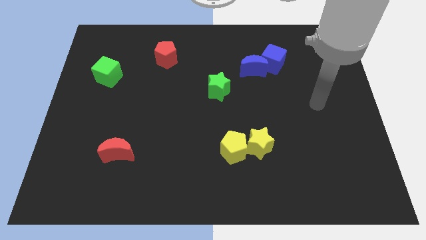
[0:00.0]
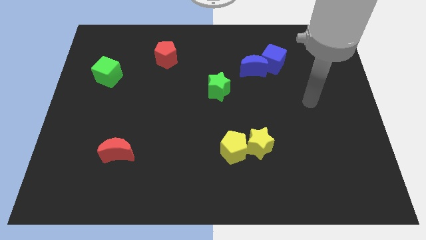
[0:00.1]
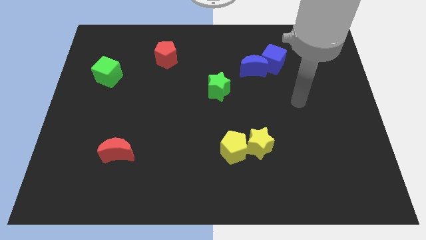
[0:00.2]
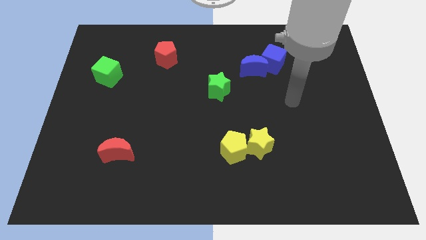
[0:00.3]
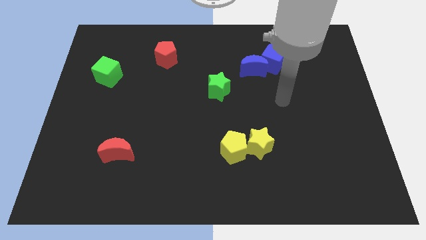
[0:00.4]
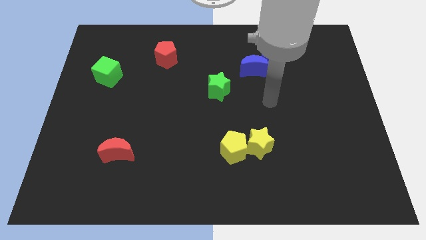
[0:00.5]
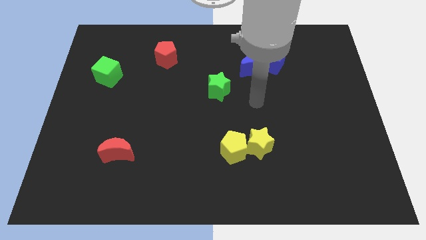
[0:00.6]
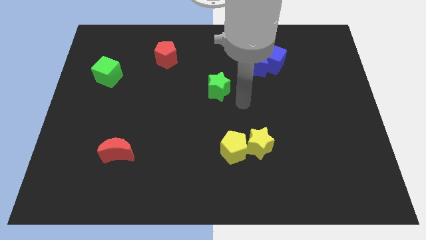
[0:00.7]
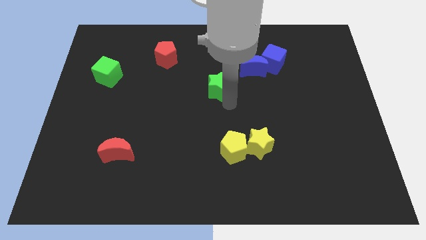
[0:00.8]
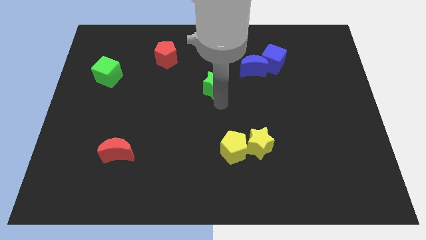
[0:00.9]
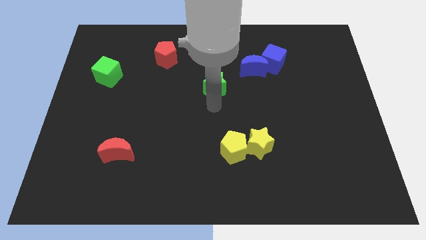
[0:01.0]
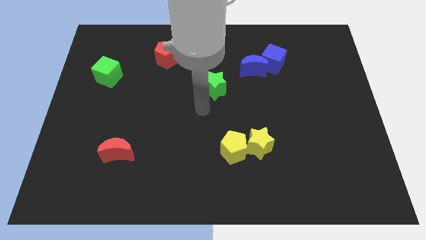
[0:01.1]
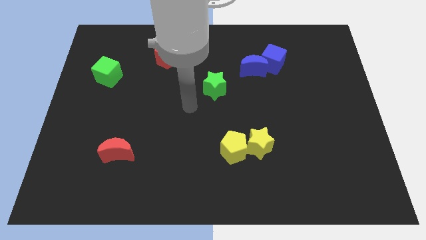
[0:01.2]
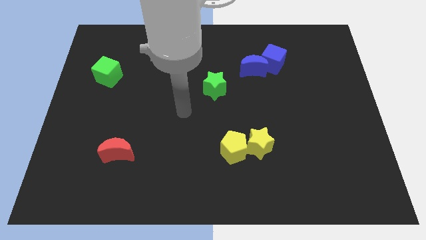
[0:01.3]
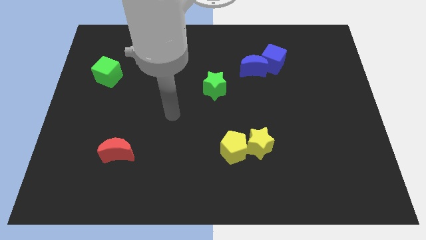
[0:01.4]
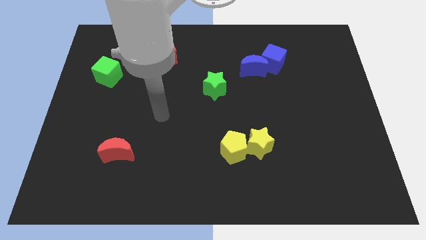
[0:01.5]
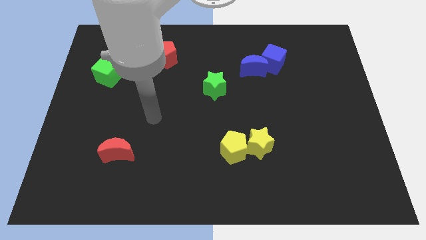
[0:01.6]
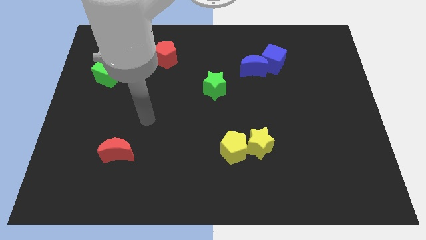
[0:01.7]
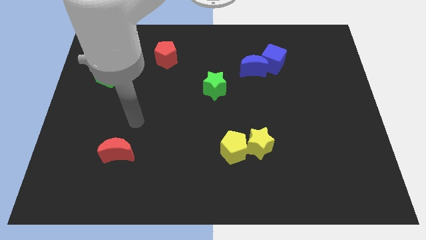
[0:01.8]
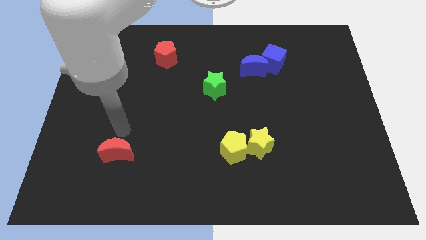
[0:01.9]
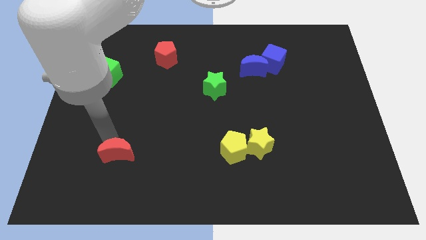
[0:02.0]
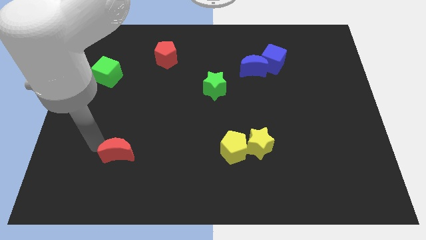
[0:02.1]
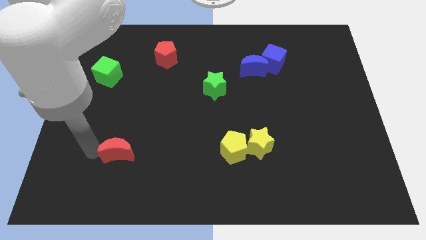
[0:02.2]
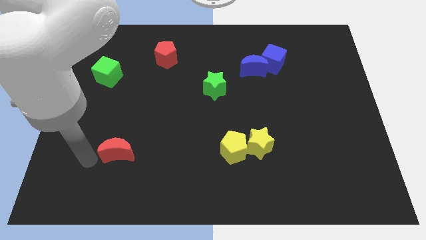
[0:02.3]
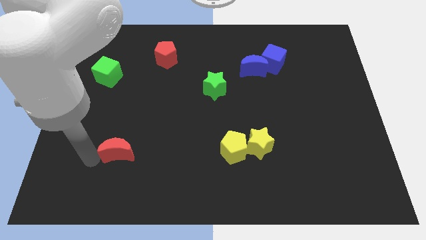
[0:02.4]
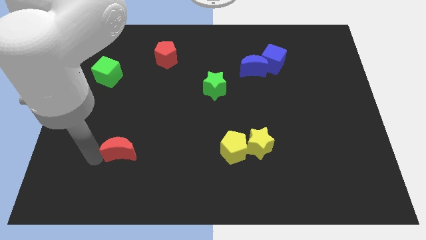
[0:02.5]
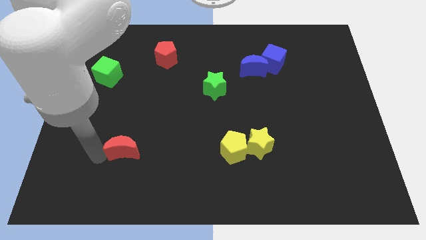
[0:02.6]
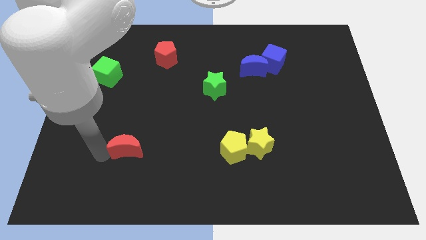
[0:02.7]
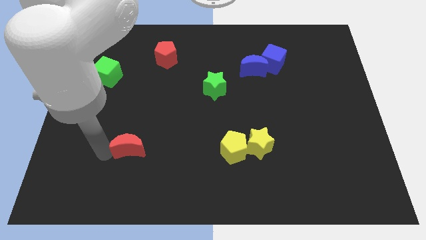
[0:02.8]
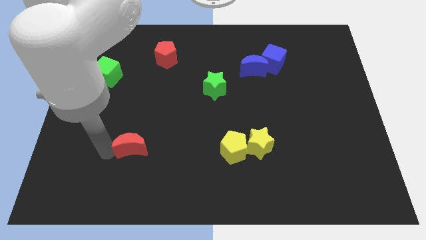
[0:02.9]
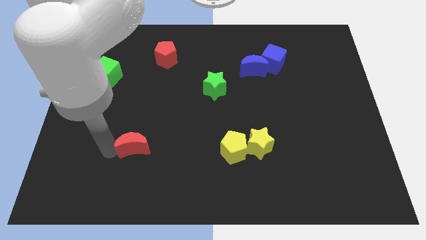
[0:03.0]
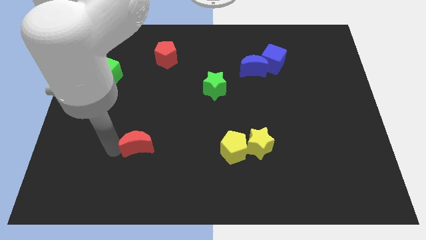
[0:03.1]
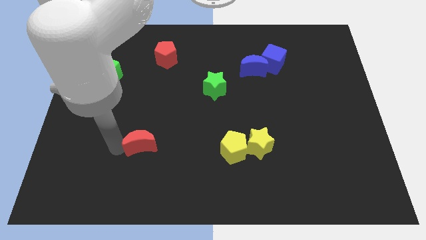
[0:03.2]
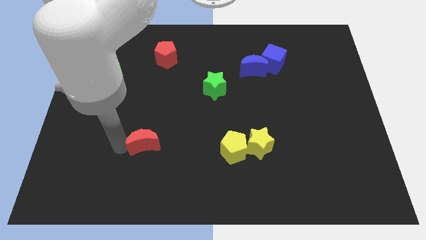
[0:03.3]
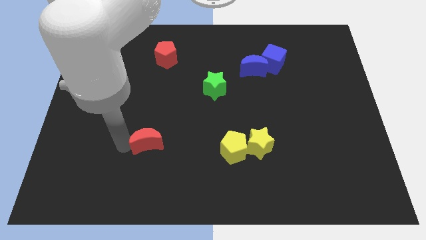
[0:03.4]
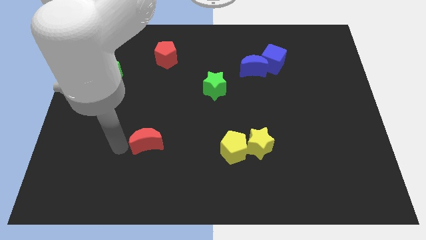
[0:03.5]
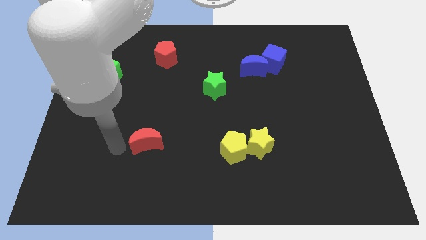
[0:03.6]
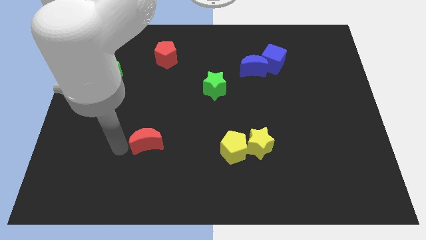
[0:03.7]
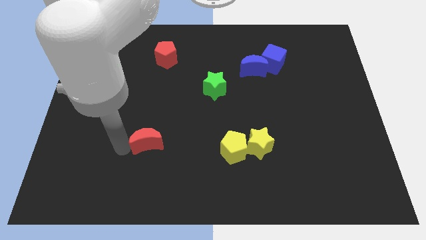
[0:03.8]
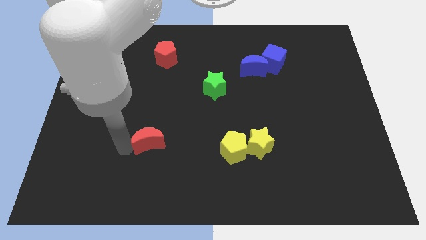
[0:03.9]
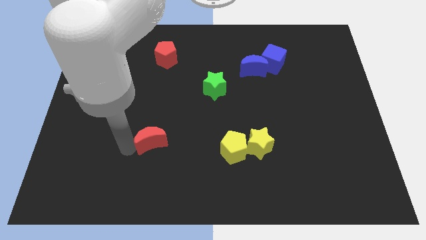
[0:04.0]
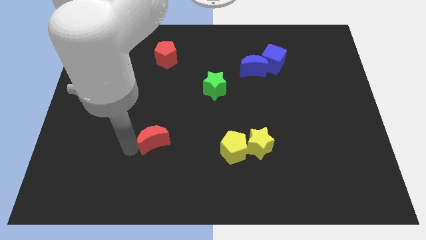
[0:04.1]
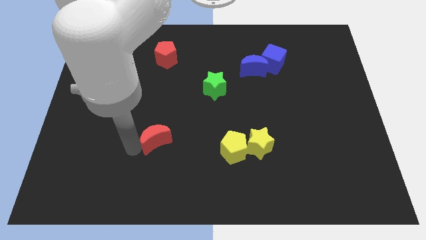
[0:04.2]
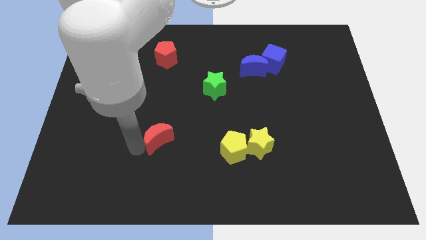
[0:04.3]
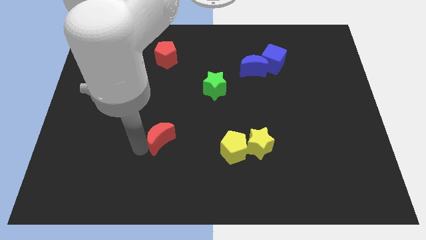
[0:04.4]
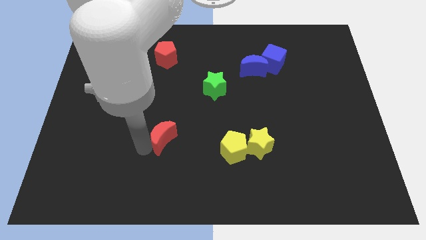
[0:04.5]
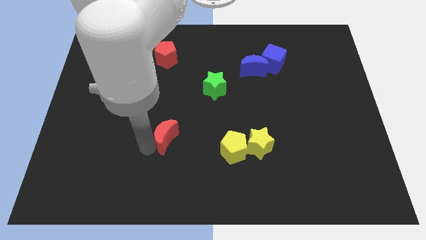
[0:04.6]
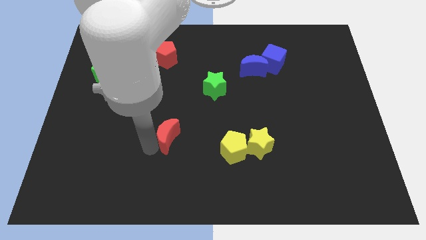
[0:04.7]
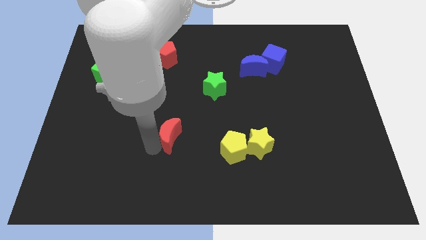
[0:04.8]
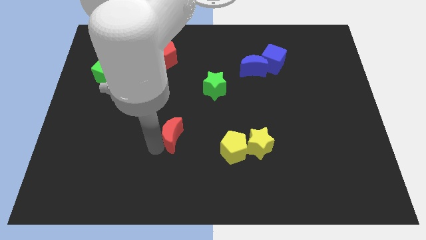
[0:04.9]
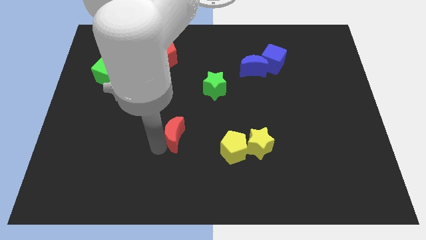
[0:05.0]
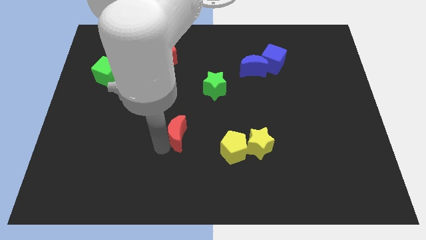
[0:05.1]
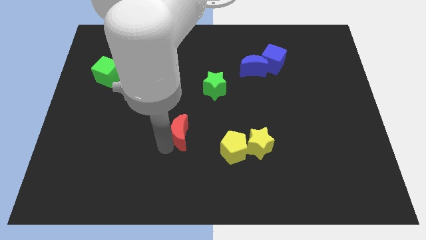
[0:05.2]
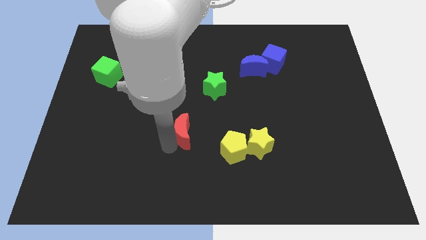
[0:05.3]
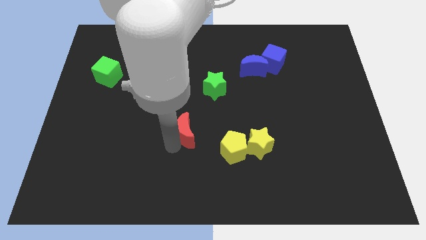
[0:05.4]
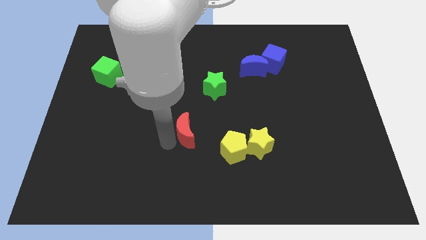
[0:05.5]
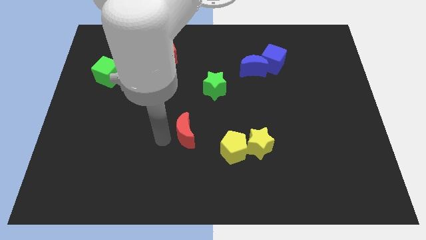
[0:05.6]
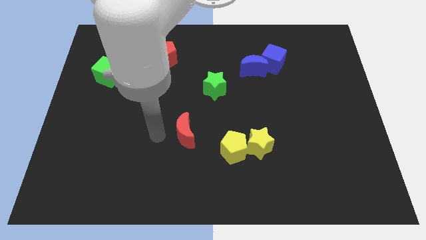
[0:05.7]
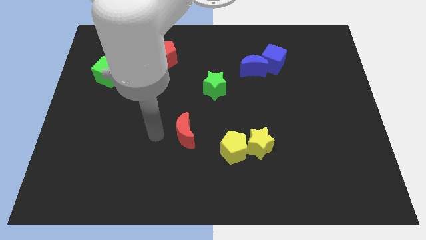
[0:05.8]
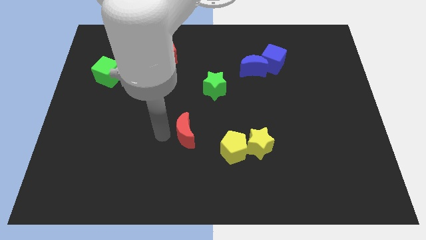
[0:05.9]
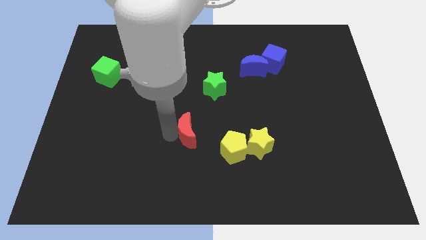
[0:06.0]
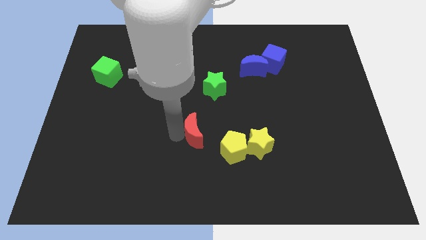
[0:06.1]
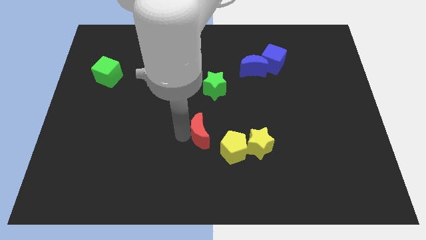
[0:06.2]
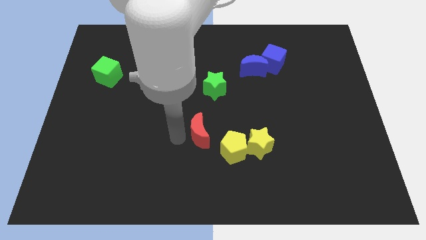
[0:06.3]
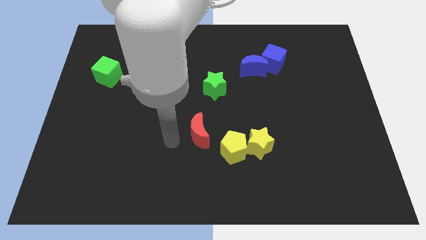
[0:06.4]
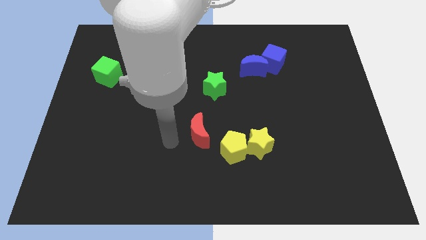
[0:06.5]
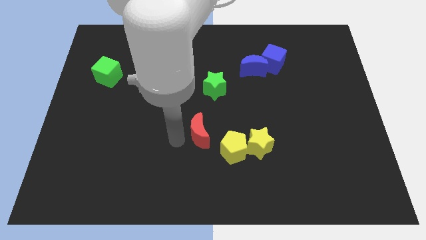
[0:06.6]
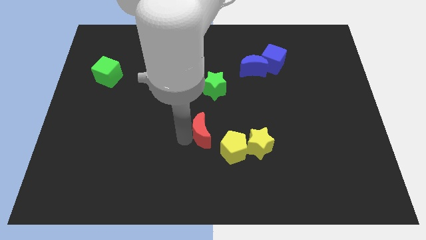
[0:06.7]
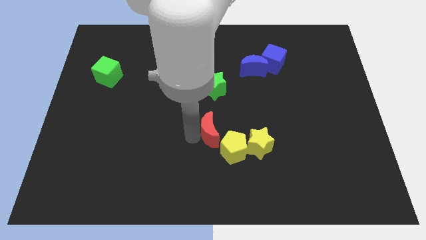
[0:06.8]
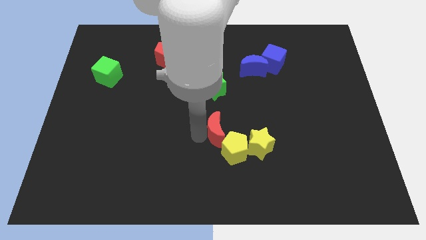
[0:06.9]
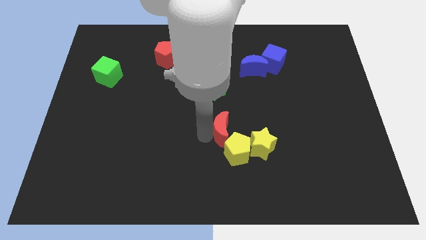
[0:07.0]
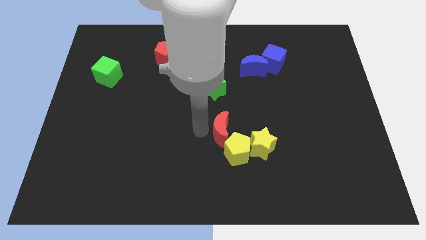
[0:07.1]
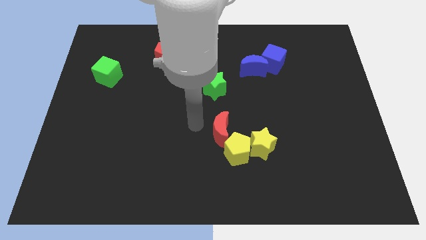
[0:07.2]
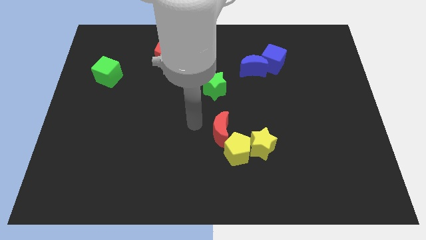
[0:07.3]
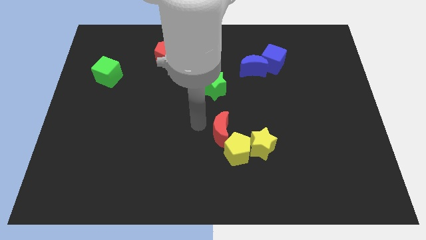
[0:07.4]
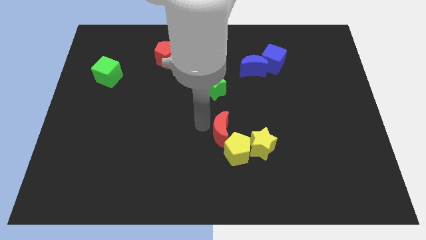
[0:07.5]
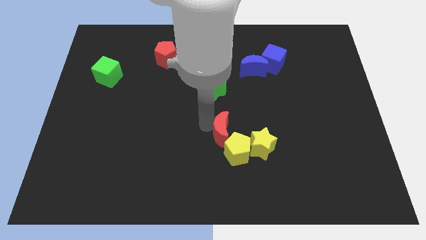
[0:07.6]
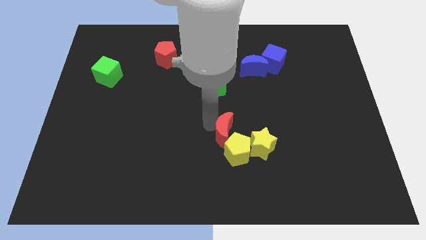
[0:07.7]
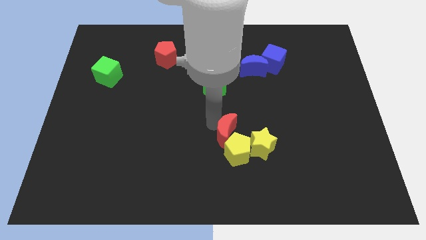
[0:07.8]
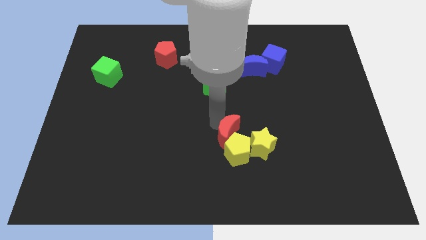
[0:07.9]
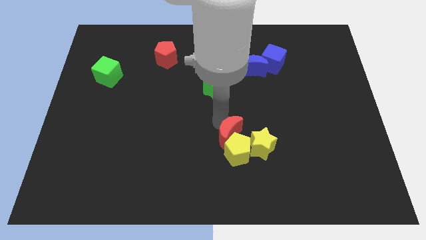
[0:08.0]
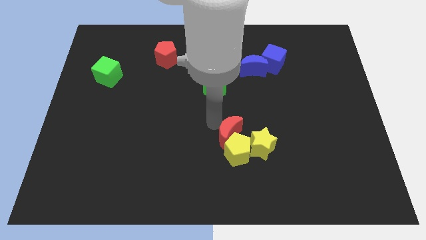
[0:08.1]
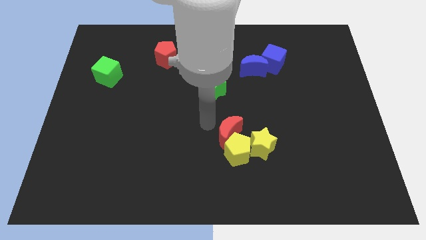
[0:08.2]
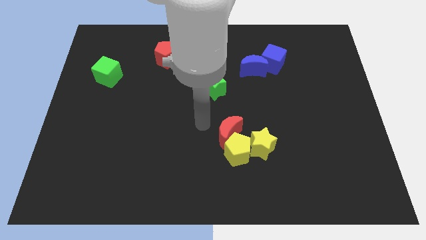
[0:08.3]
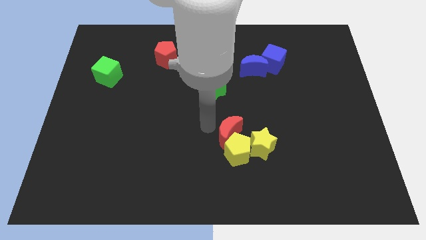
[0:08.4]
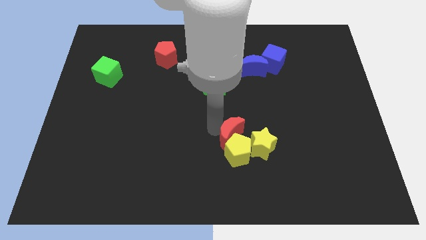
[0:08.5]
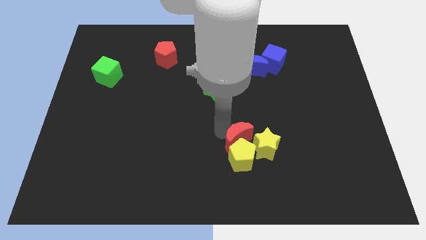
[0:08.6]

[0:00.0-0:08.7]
push the red moon next to the yellow star
